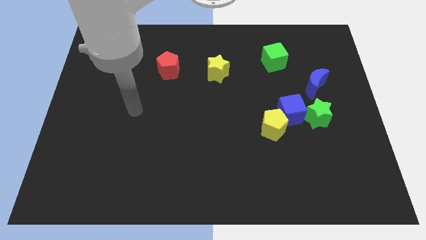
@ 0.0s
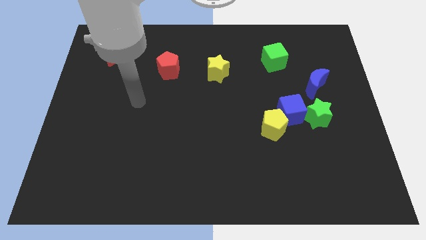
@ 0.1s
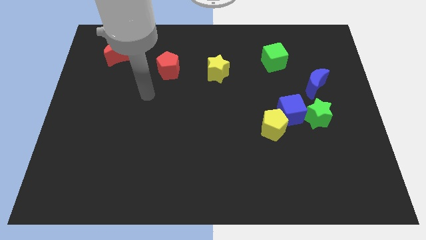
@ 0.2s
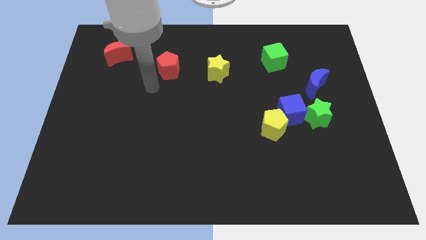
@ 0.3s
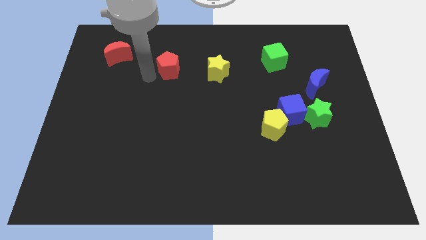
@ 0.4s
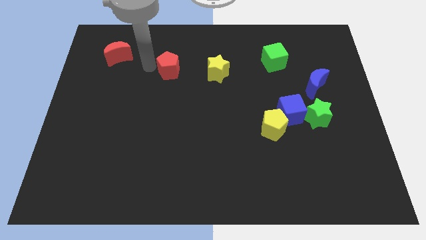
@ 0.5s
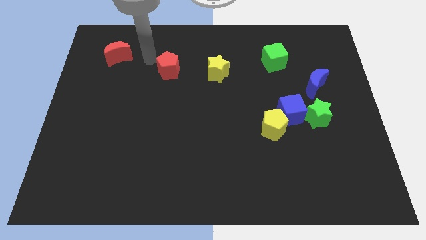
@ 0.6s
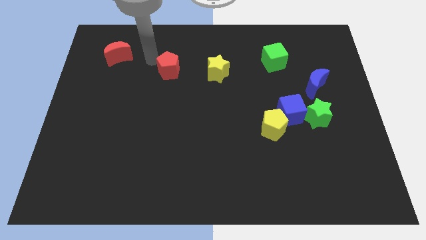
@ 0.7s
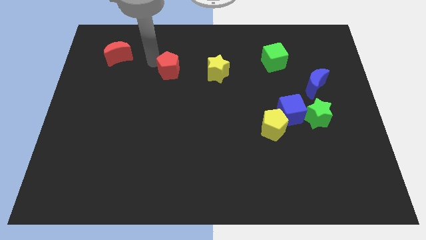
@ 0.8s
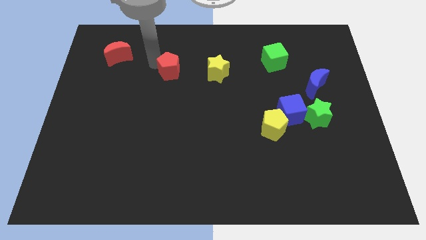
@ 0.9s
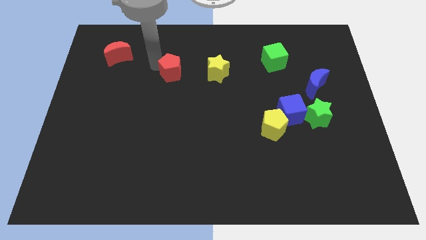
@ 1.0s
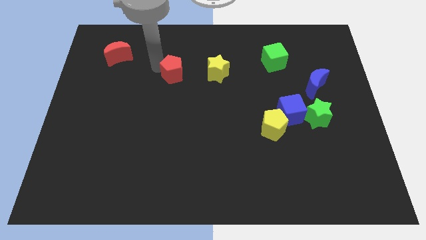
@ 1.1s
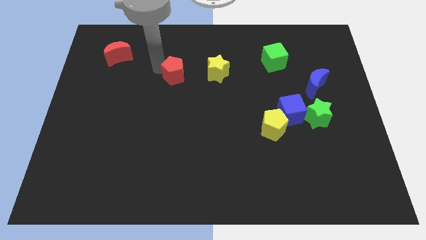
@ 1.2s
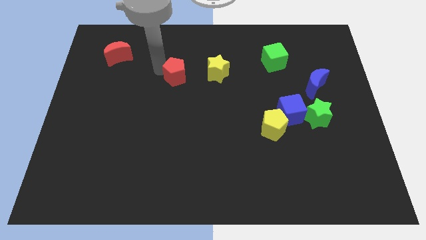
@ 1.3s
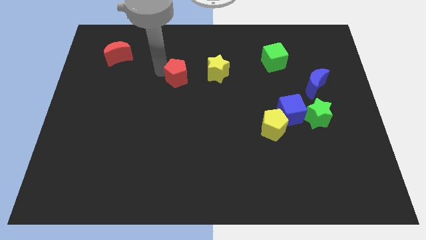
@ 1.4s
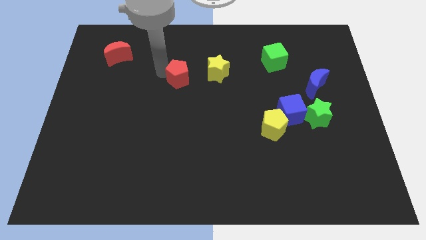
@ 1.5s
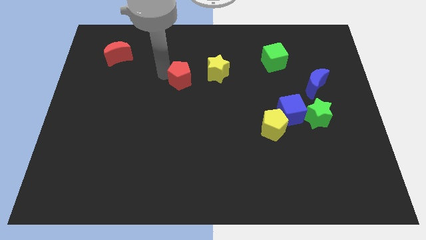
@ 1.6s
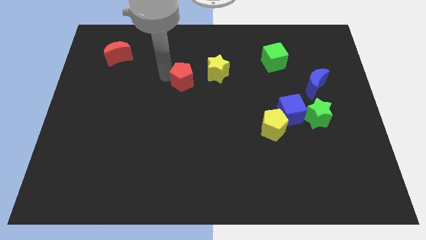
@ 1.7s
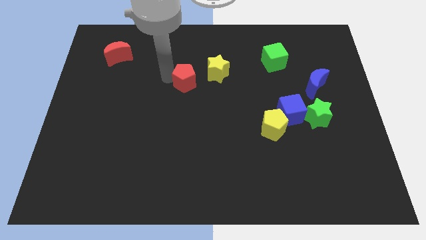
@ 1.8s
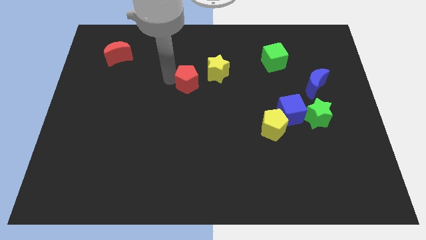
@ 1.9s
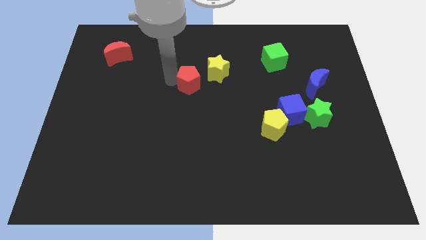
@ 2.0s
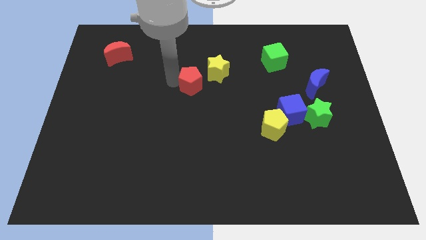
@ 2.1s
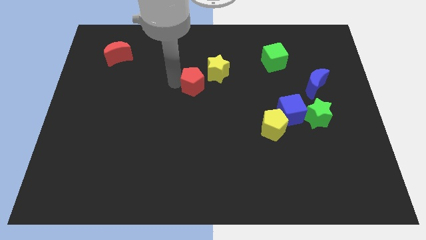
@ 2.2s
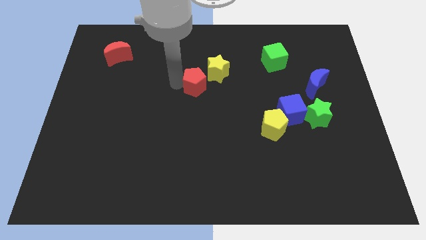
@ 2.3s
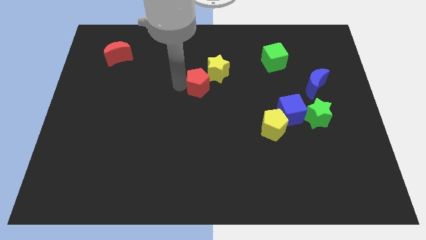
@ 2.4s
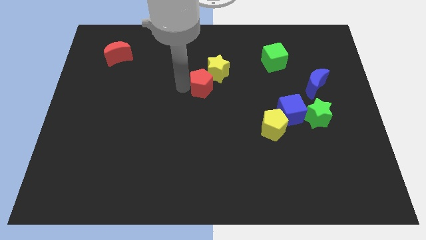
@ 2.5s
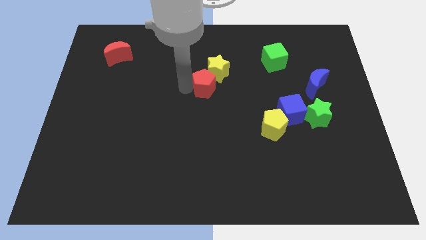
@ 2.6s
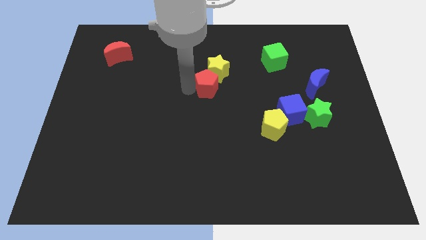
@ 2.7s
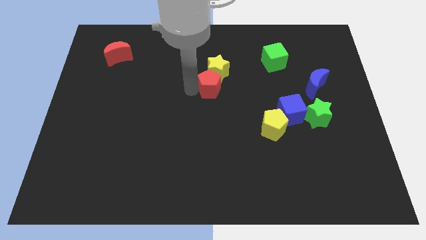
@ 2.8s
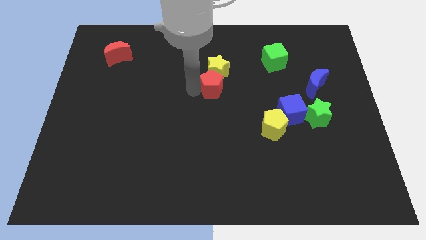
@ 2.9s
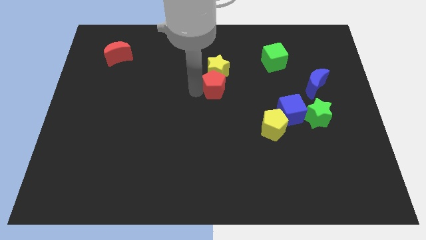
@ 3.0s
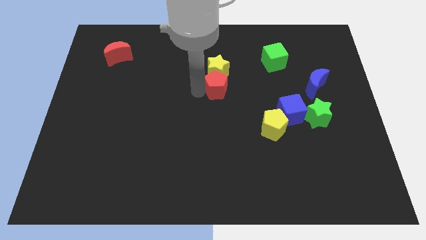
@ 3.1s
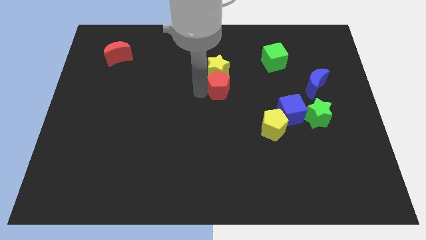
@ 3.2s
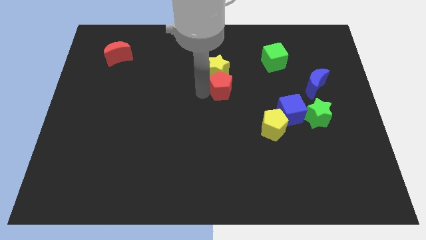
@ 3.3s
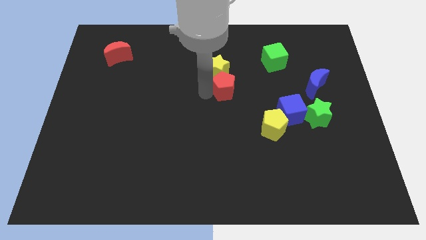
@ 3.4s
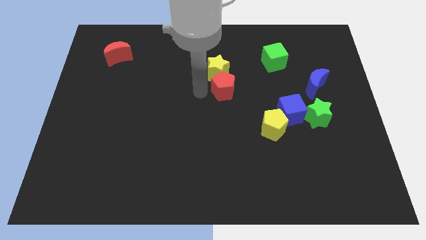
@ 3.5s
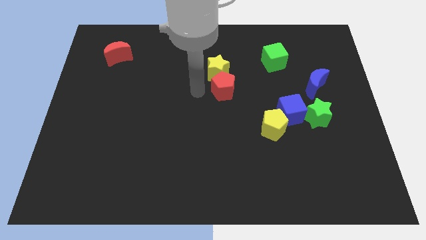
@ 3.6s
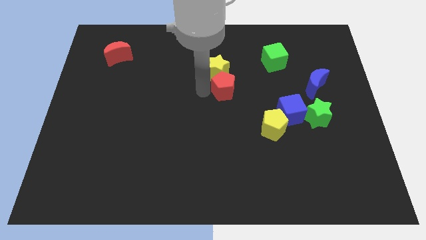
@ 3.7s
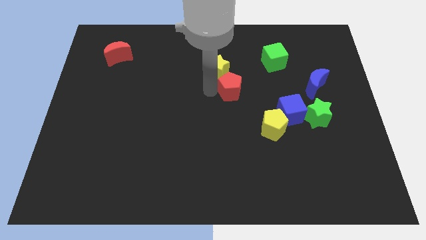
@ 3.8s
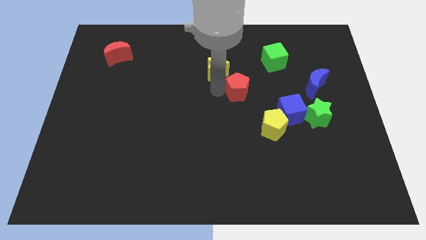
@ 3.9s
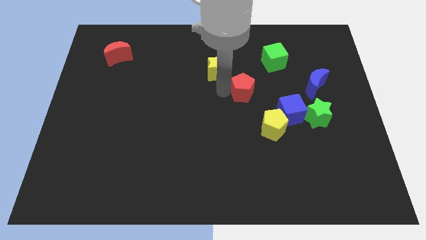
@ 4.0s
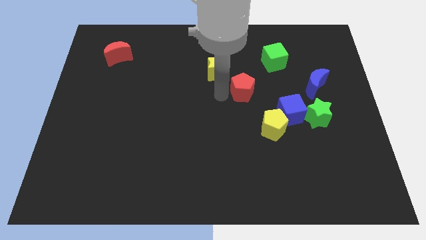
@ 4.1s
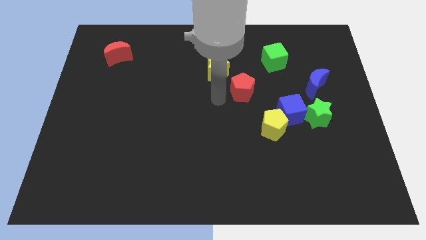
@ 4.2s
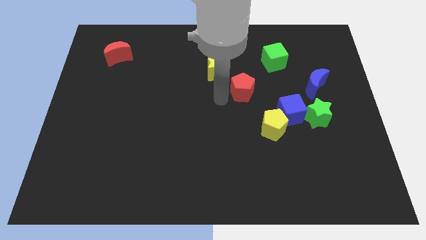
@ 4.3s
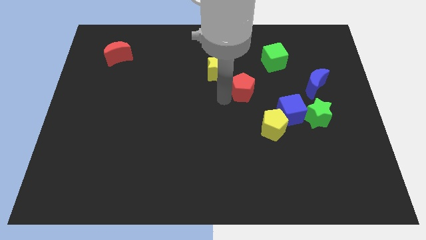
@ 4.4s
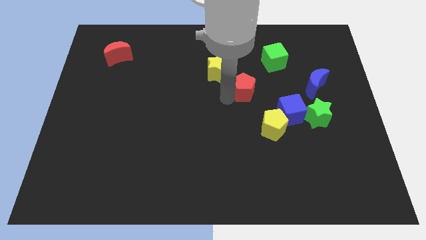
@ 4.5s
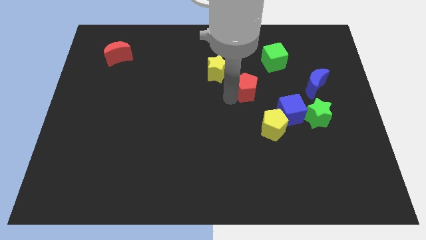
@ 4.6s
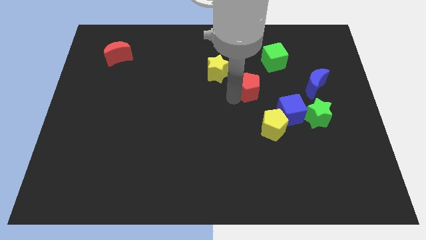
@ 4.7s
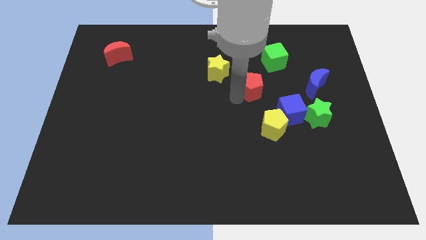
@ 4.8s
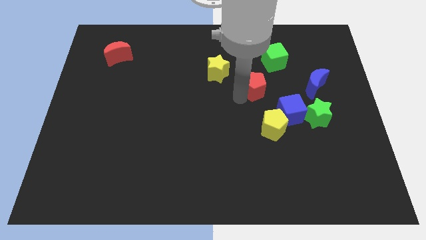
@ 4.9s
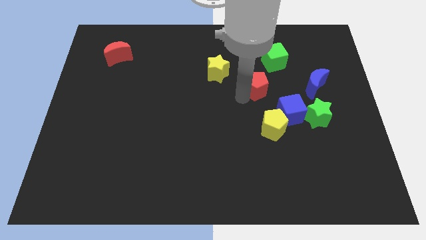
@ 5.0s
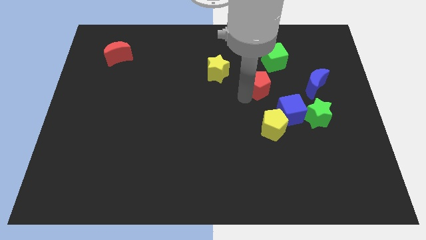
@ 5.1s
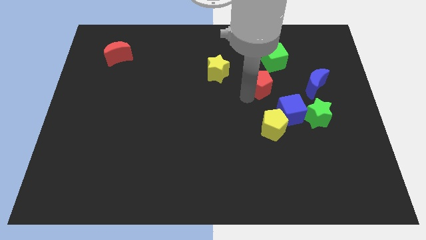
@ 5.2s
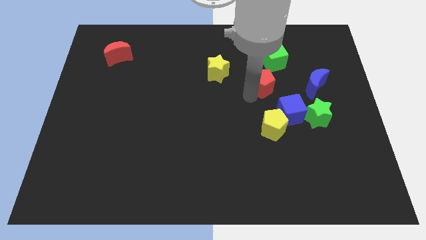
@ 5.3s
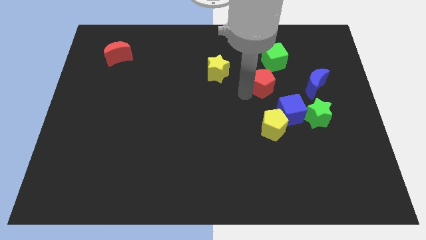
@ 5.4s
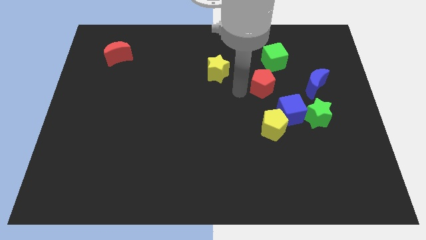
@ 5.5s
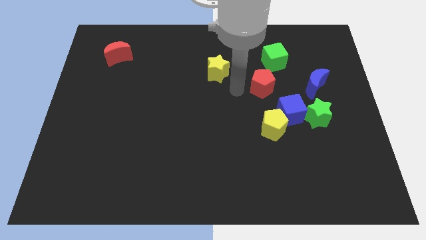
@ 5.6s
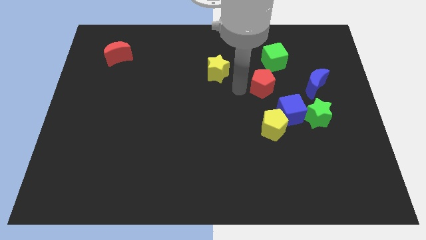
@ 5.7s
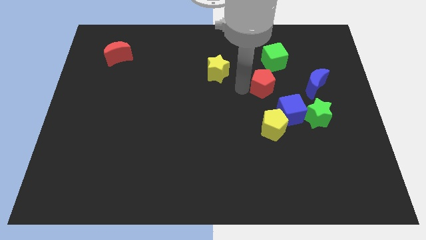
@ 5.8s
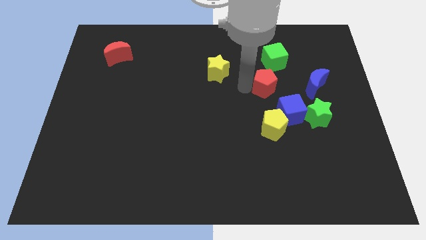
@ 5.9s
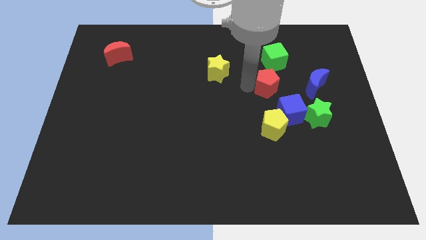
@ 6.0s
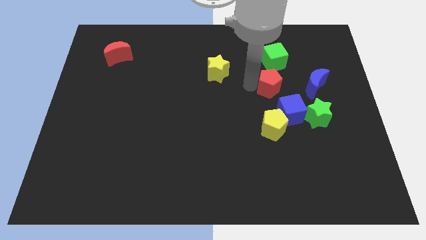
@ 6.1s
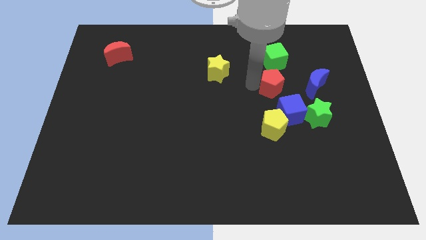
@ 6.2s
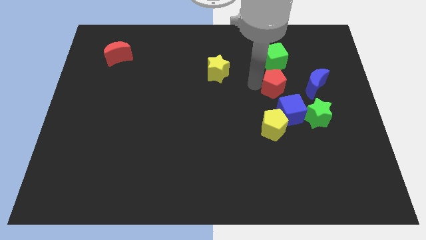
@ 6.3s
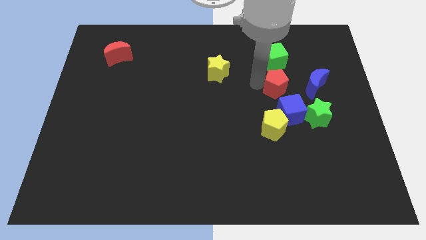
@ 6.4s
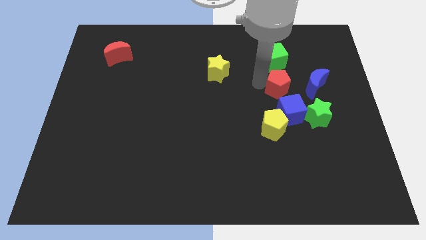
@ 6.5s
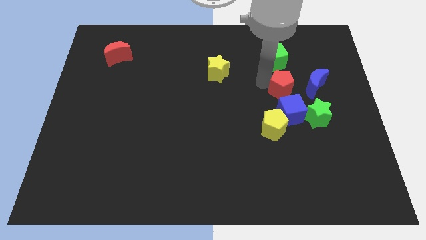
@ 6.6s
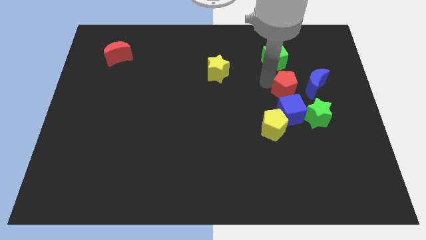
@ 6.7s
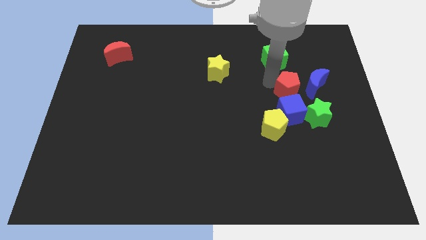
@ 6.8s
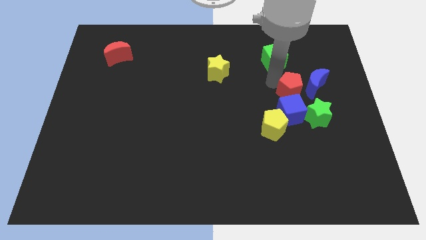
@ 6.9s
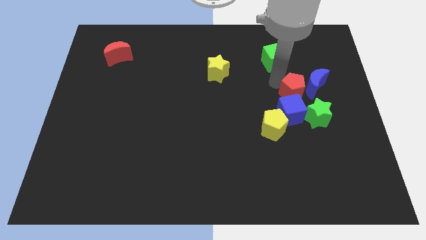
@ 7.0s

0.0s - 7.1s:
push the red pentagon close to the blue moon

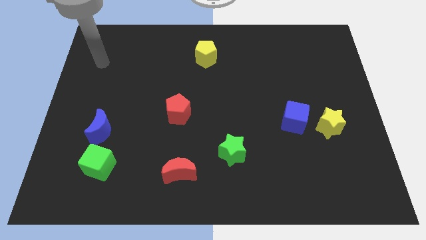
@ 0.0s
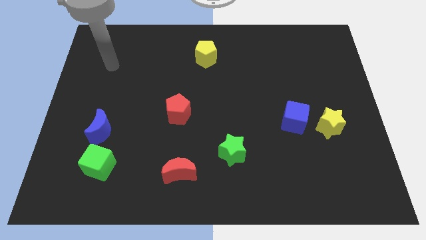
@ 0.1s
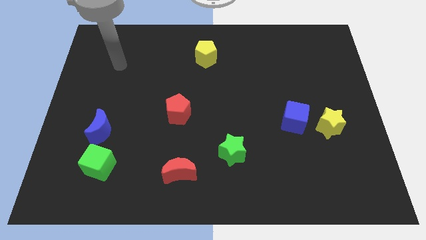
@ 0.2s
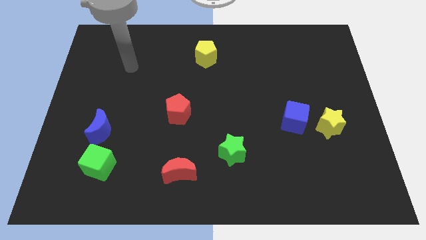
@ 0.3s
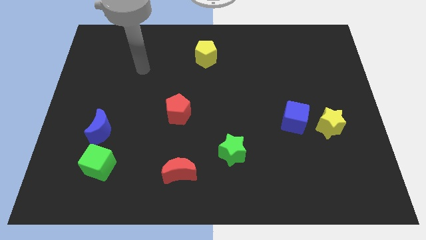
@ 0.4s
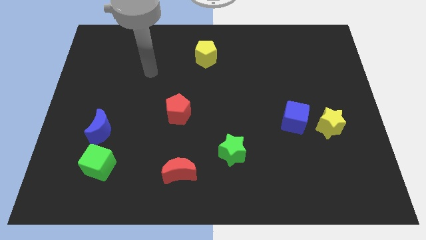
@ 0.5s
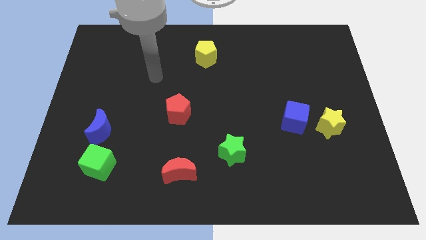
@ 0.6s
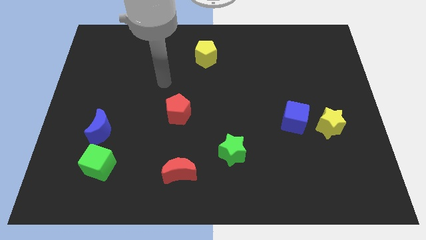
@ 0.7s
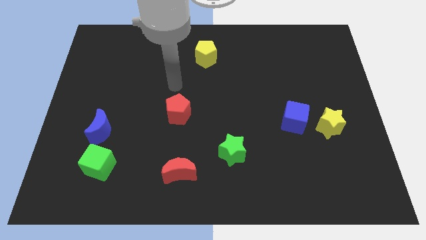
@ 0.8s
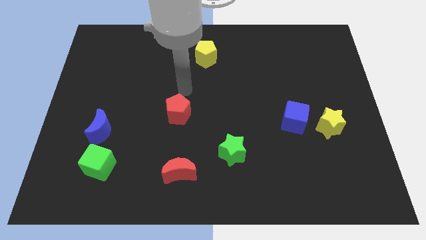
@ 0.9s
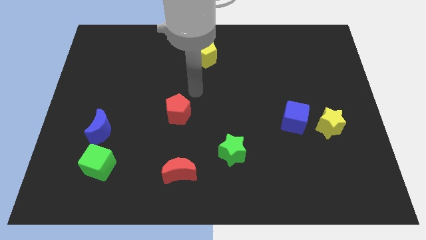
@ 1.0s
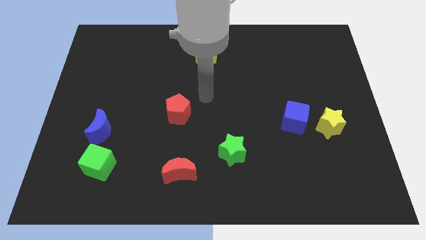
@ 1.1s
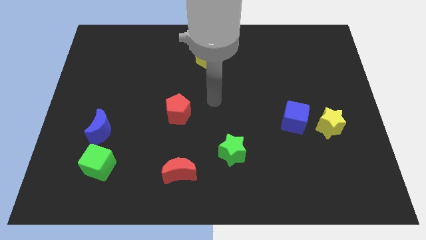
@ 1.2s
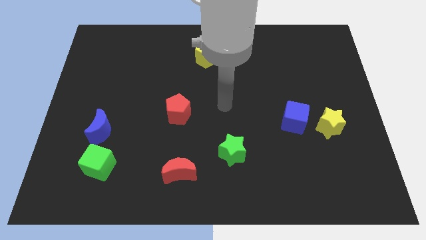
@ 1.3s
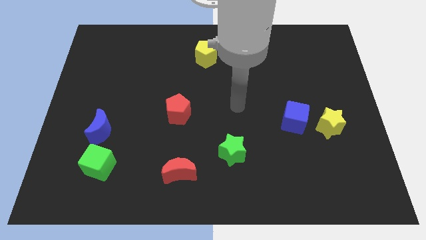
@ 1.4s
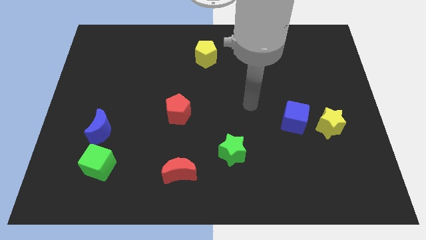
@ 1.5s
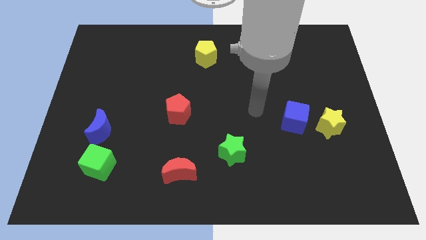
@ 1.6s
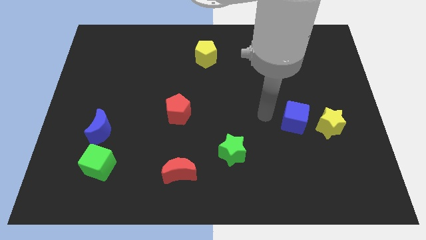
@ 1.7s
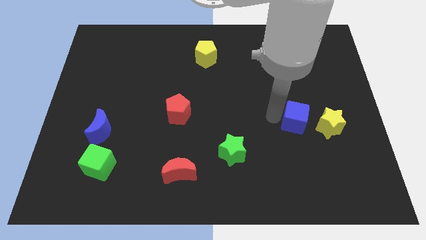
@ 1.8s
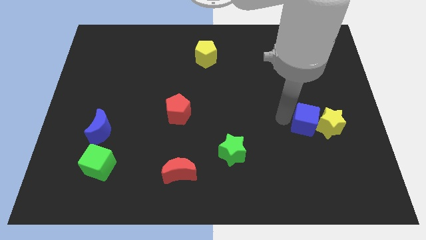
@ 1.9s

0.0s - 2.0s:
slide the blue cube next to the yellow star
